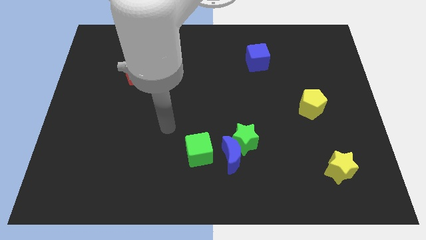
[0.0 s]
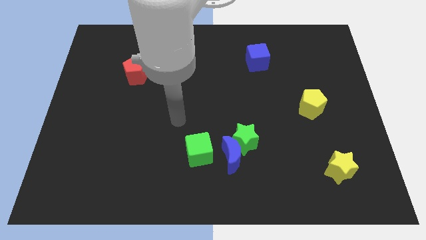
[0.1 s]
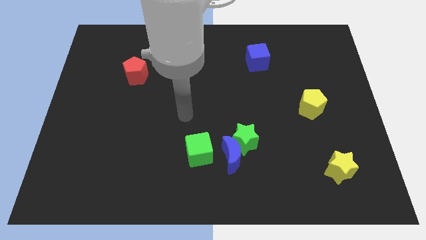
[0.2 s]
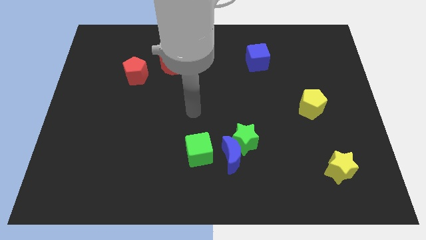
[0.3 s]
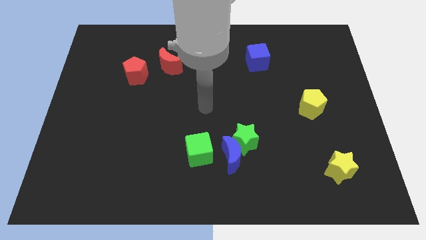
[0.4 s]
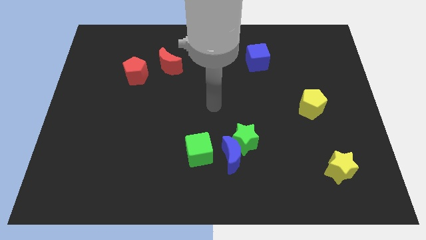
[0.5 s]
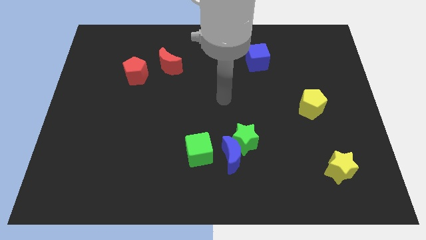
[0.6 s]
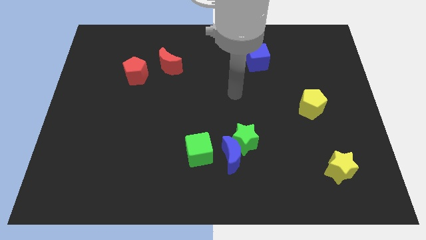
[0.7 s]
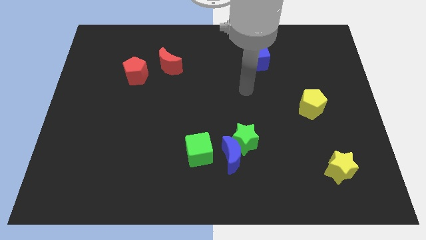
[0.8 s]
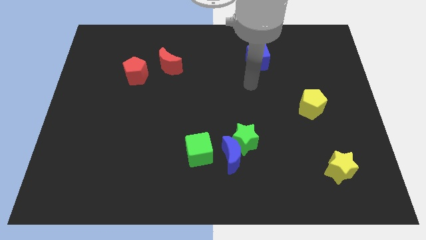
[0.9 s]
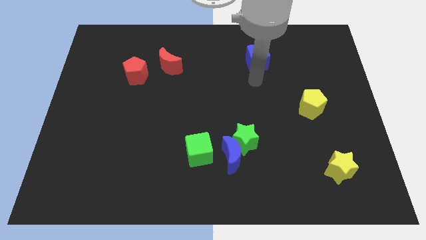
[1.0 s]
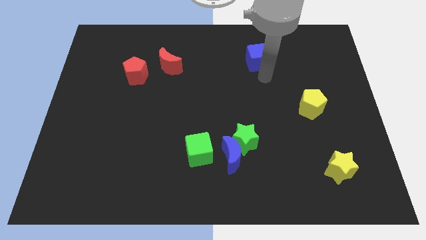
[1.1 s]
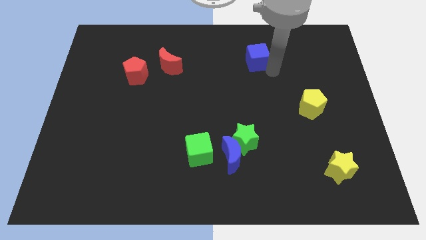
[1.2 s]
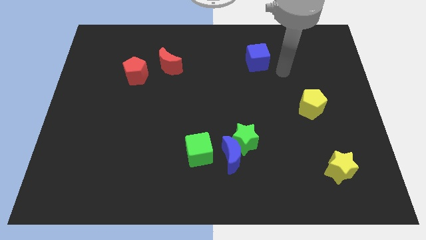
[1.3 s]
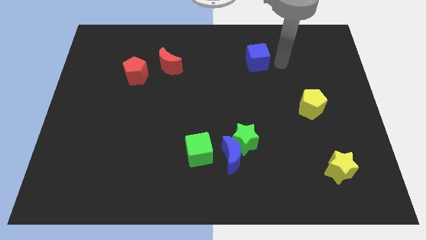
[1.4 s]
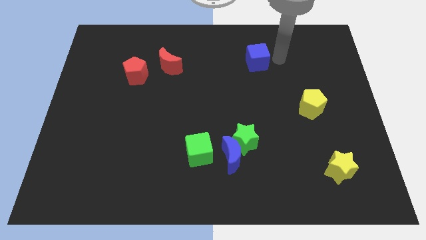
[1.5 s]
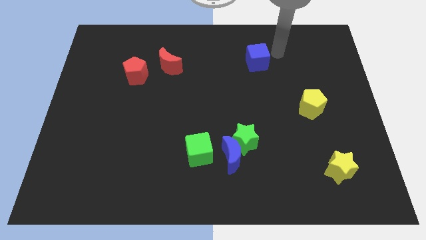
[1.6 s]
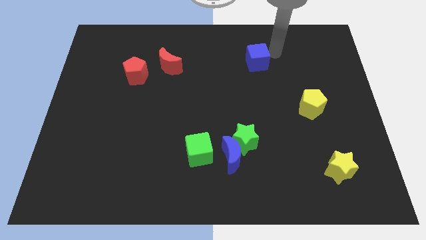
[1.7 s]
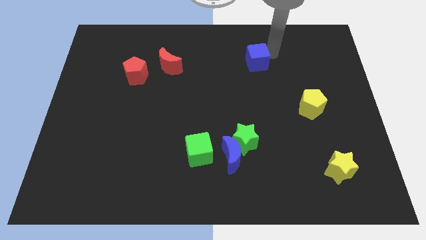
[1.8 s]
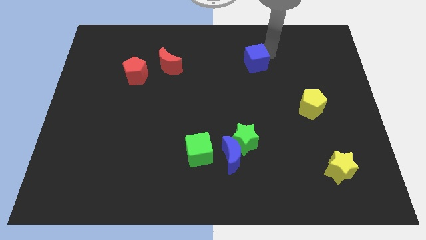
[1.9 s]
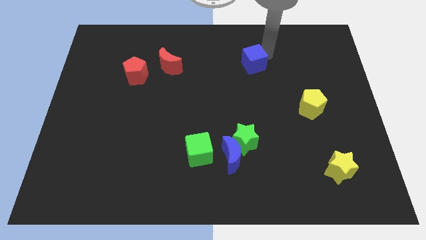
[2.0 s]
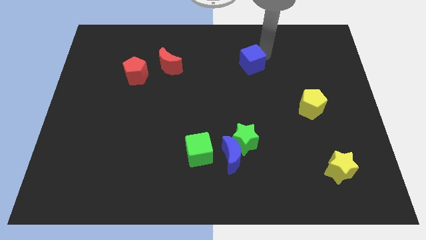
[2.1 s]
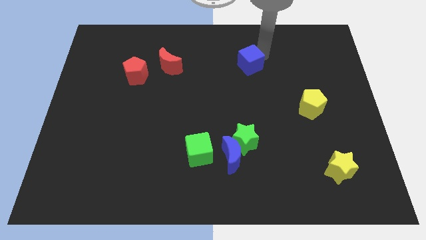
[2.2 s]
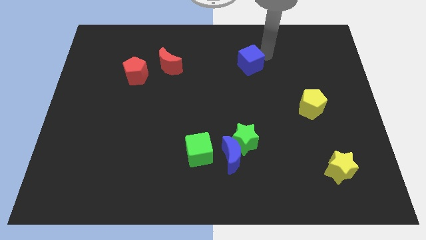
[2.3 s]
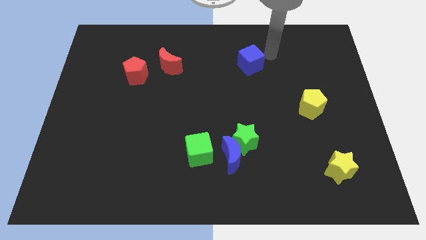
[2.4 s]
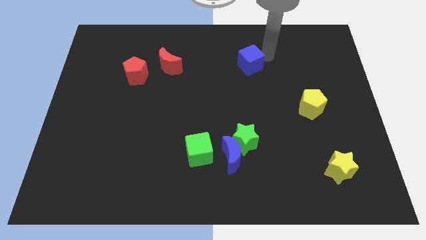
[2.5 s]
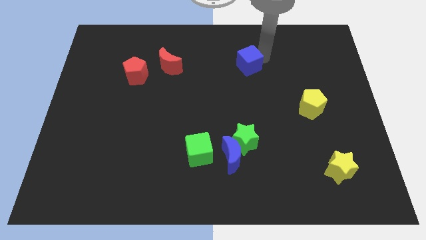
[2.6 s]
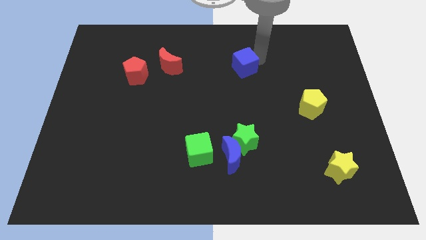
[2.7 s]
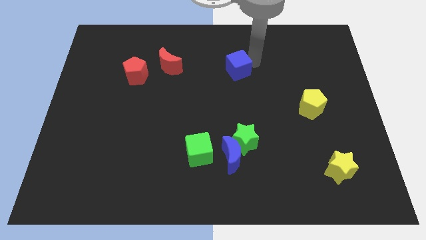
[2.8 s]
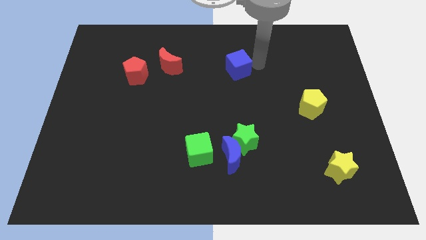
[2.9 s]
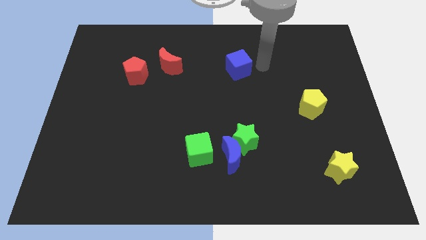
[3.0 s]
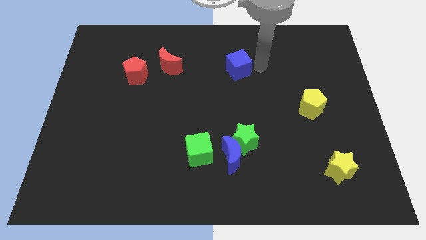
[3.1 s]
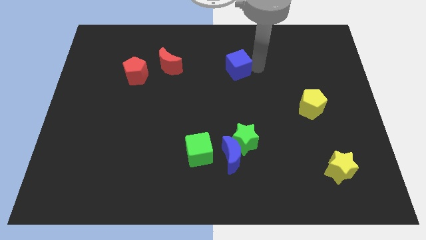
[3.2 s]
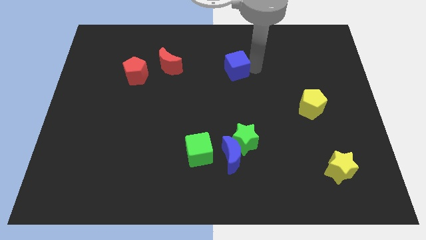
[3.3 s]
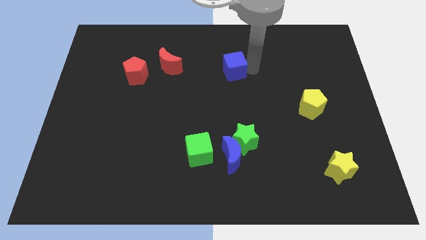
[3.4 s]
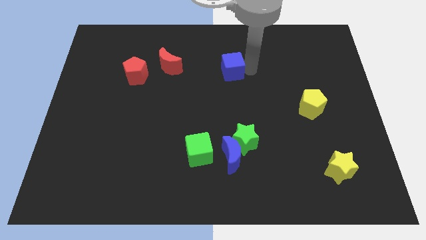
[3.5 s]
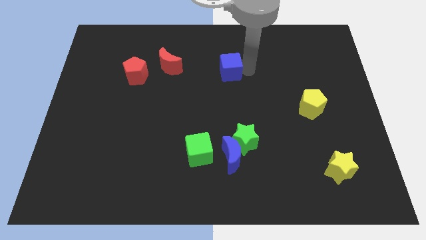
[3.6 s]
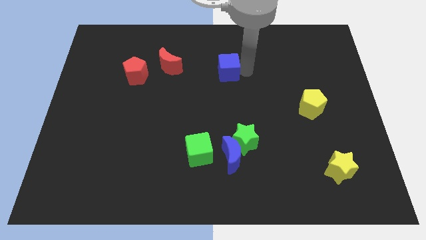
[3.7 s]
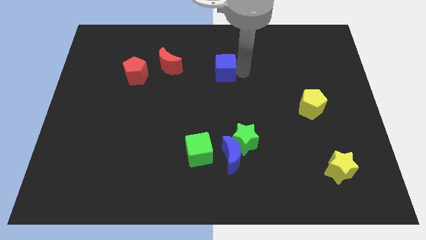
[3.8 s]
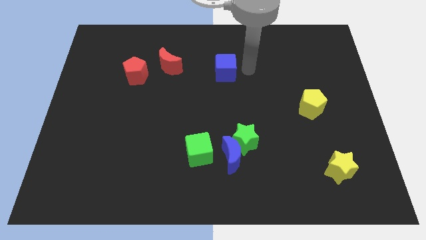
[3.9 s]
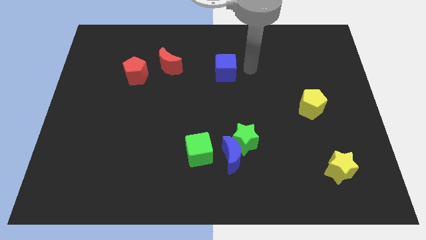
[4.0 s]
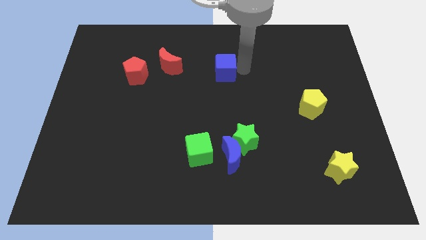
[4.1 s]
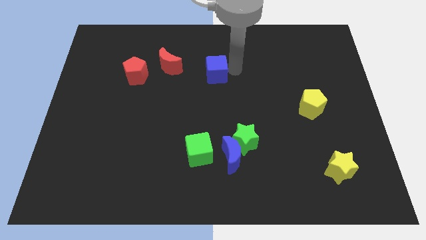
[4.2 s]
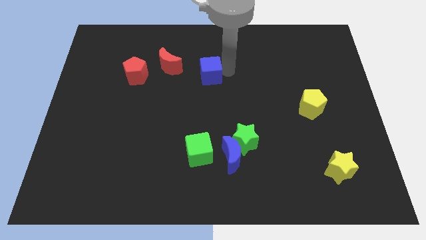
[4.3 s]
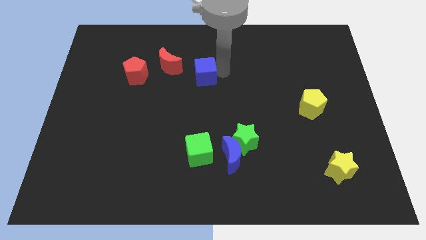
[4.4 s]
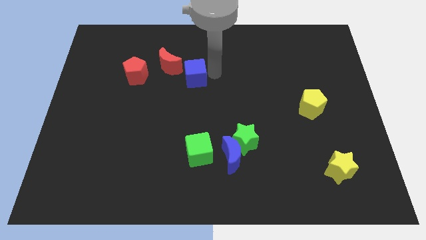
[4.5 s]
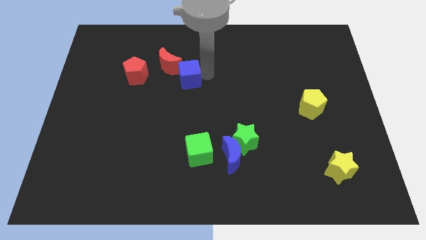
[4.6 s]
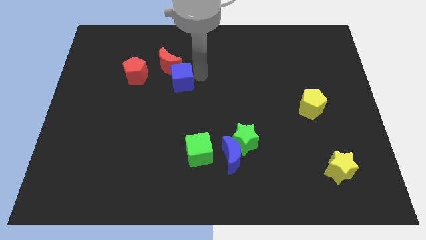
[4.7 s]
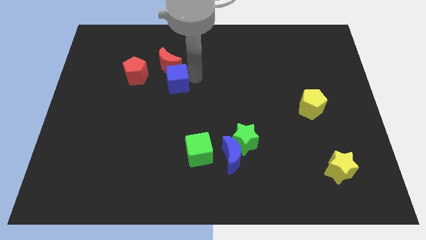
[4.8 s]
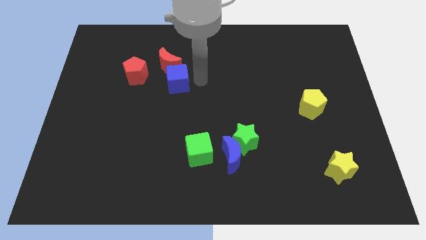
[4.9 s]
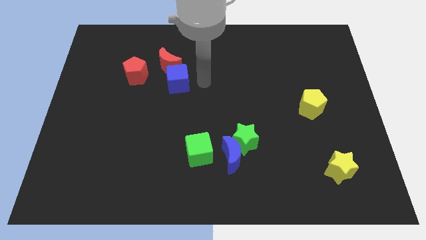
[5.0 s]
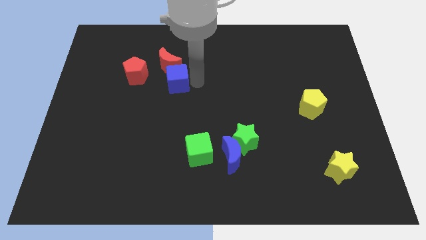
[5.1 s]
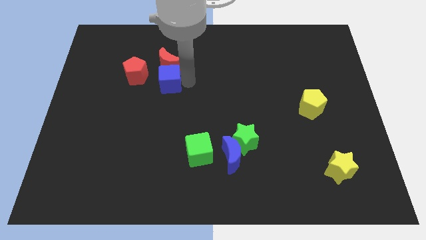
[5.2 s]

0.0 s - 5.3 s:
put the blue cube diagonally down and to the left of the red moon

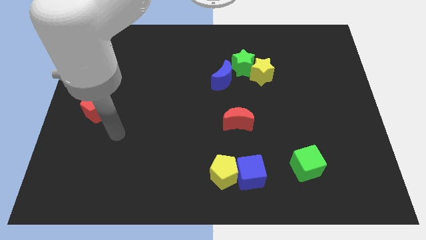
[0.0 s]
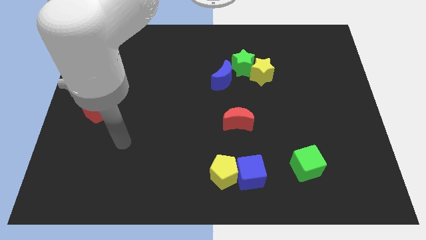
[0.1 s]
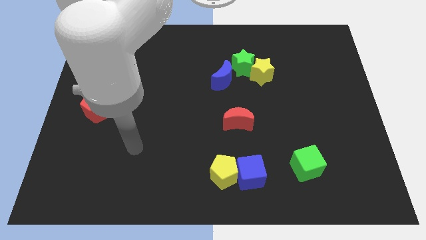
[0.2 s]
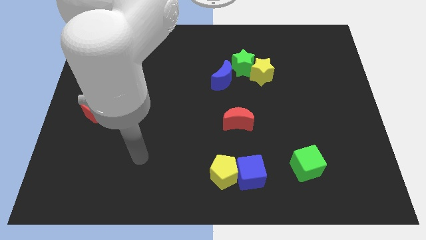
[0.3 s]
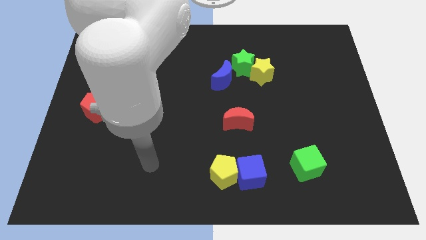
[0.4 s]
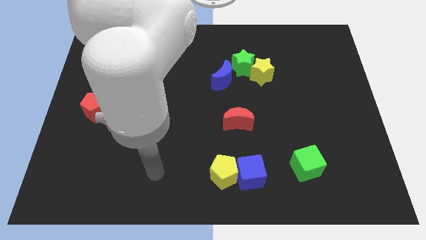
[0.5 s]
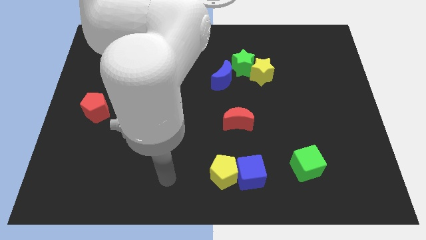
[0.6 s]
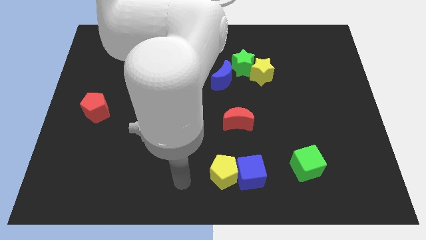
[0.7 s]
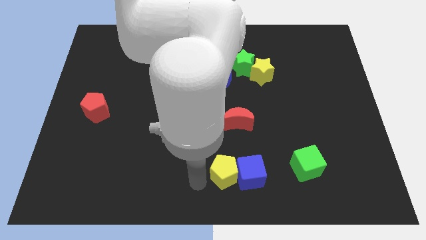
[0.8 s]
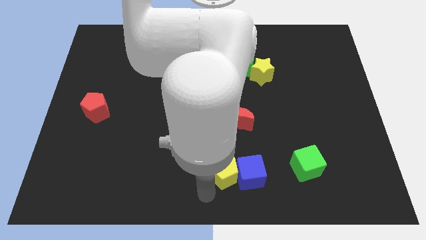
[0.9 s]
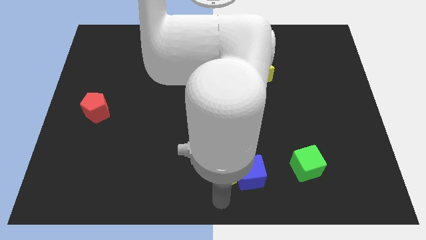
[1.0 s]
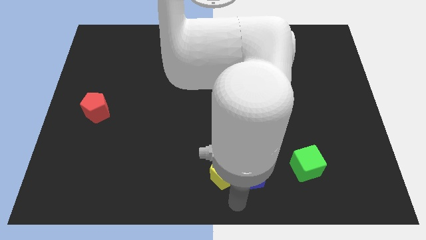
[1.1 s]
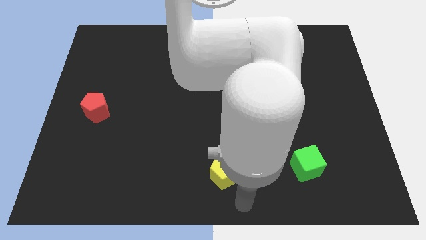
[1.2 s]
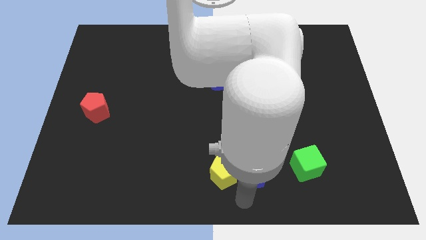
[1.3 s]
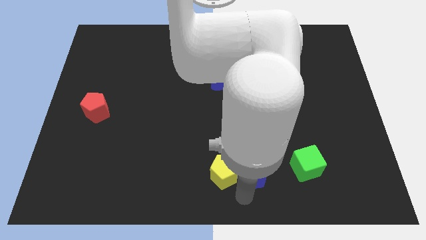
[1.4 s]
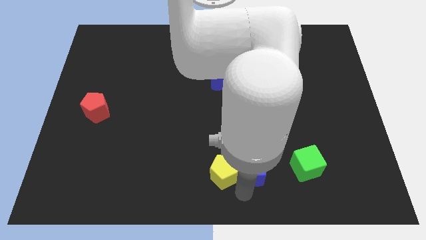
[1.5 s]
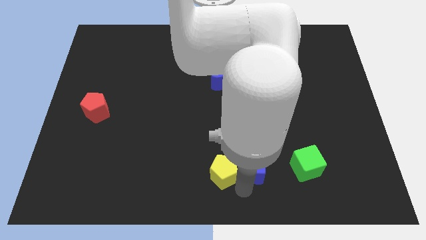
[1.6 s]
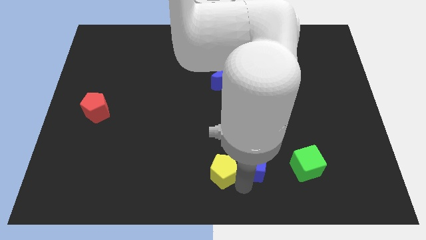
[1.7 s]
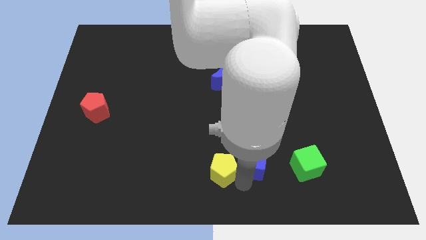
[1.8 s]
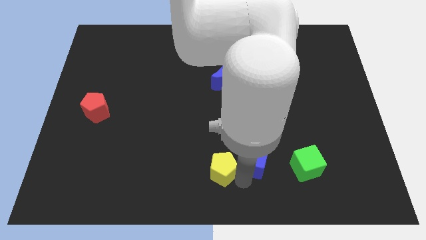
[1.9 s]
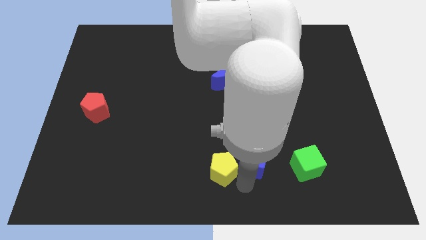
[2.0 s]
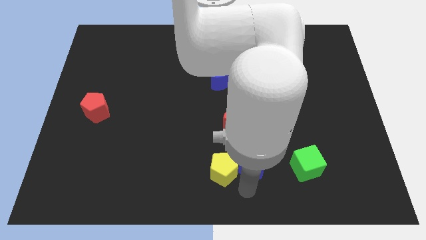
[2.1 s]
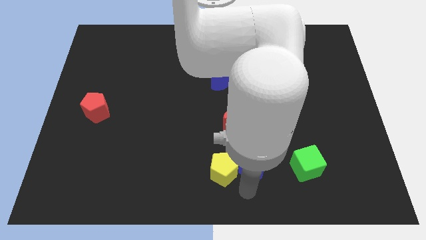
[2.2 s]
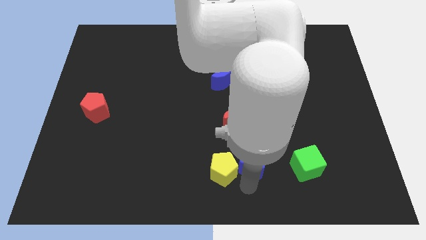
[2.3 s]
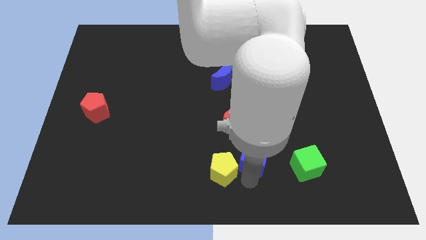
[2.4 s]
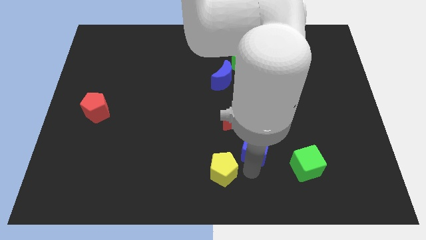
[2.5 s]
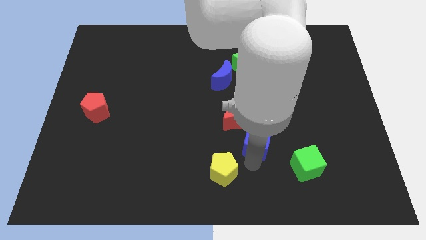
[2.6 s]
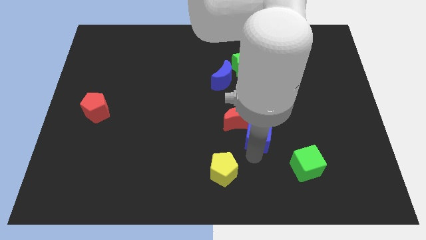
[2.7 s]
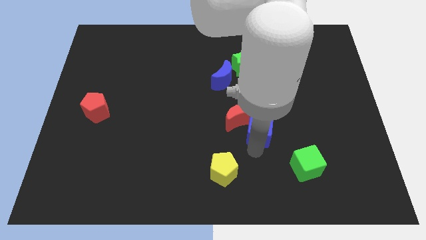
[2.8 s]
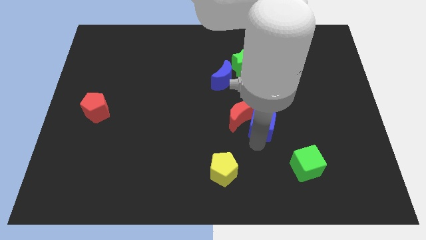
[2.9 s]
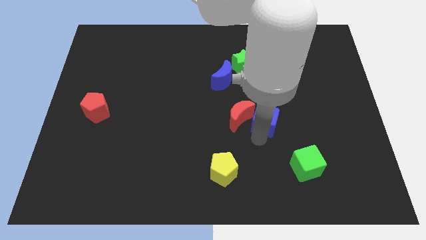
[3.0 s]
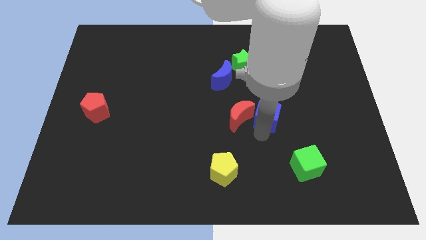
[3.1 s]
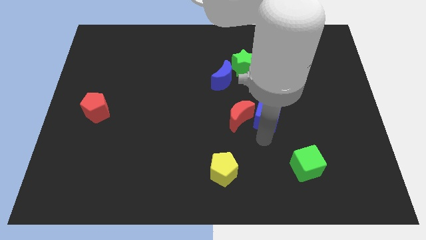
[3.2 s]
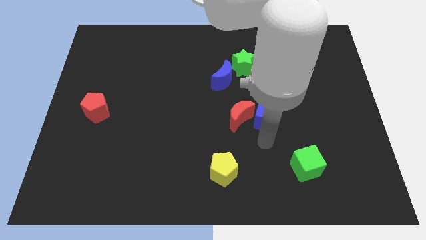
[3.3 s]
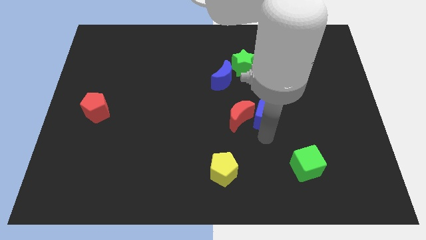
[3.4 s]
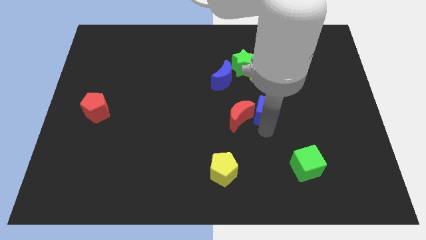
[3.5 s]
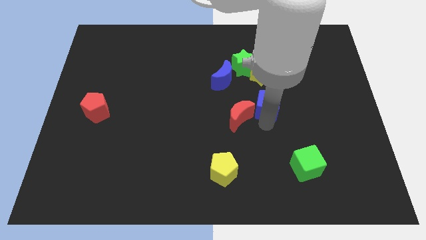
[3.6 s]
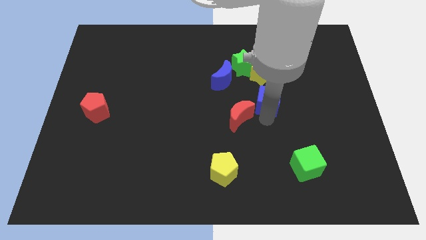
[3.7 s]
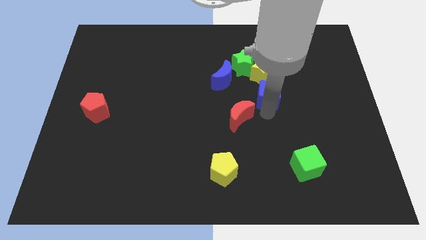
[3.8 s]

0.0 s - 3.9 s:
push the blue cube diagonally down and to the right of the green star
